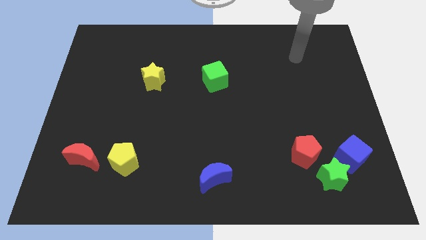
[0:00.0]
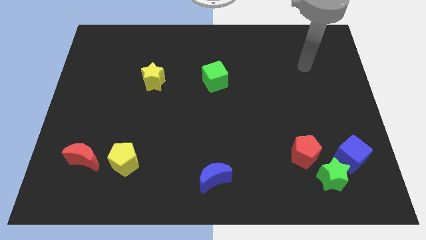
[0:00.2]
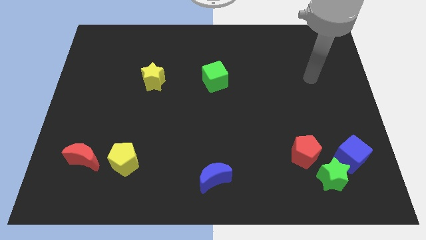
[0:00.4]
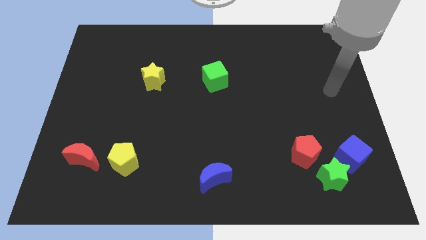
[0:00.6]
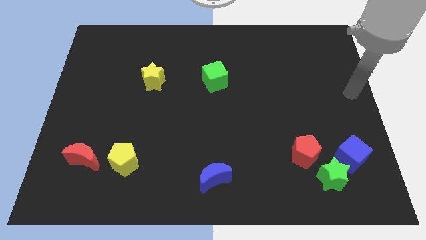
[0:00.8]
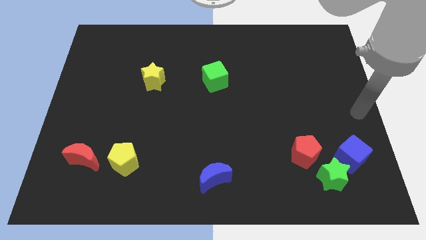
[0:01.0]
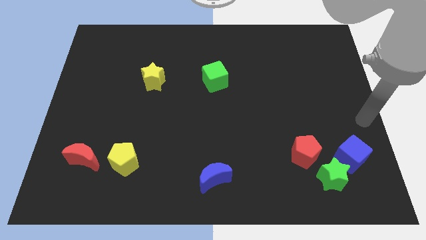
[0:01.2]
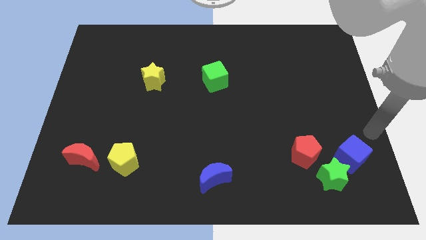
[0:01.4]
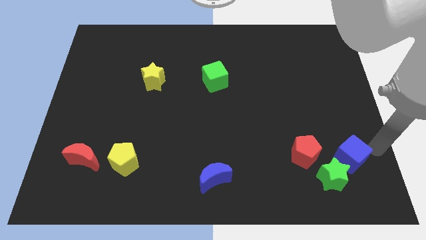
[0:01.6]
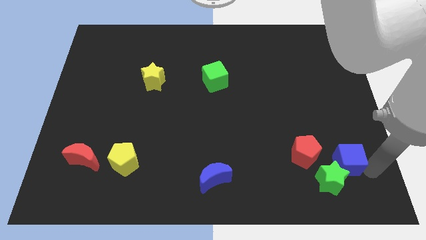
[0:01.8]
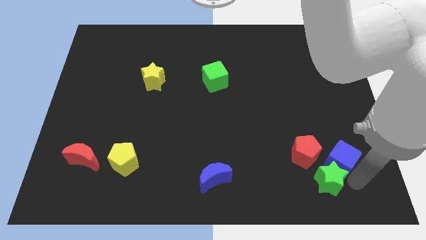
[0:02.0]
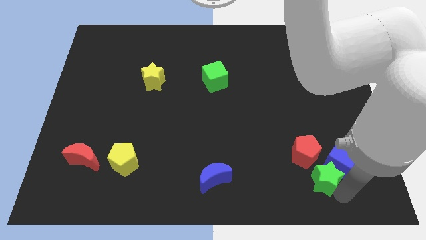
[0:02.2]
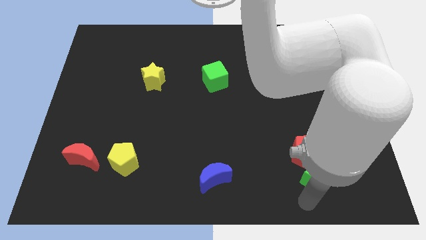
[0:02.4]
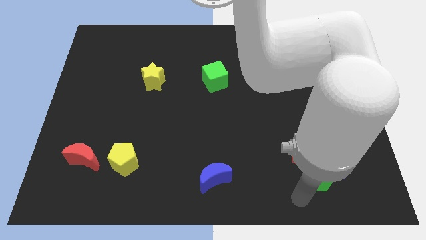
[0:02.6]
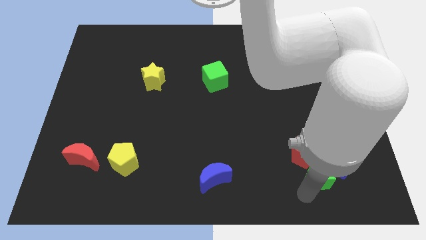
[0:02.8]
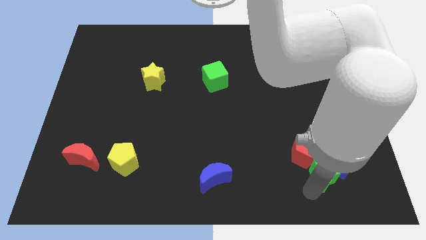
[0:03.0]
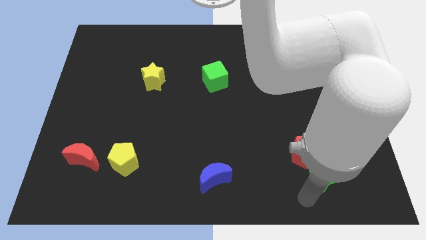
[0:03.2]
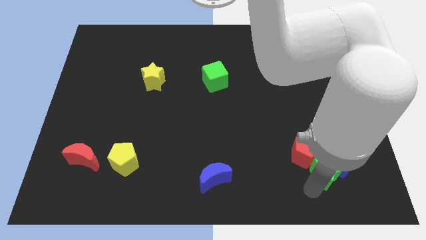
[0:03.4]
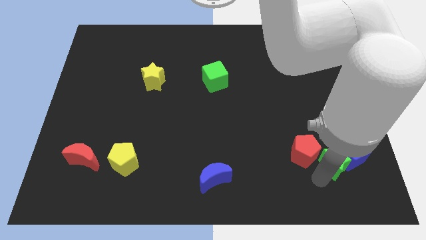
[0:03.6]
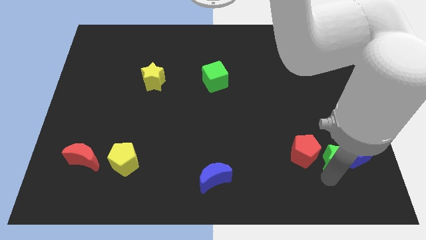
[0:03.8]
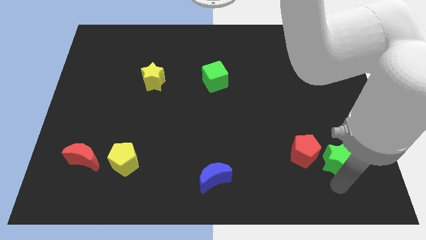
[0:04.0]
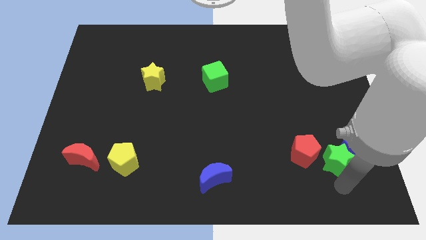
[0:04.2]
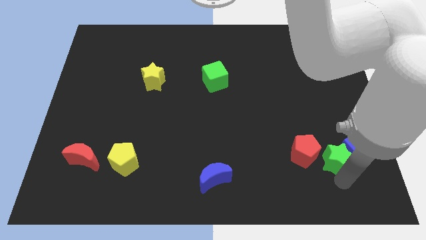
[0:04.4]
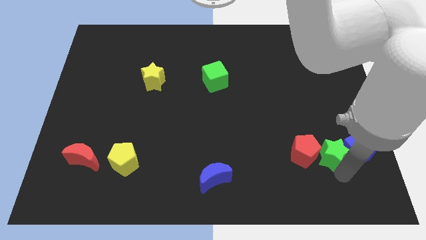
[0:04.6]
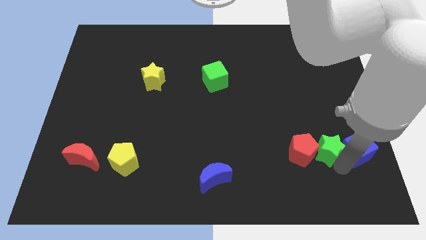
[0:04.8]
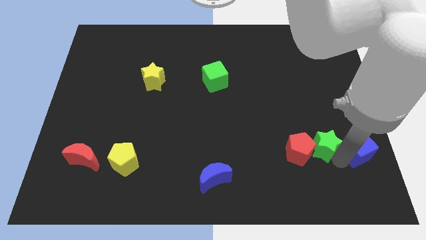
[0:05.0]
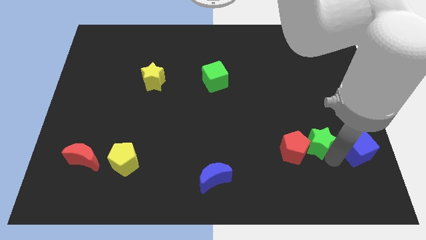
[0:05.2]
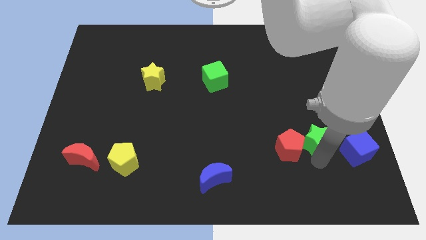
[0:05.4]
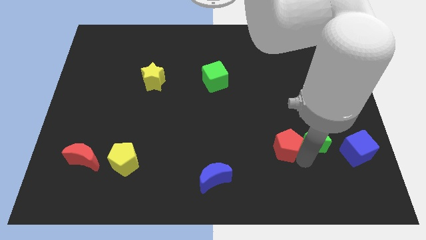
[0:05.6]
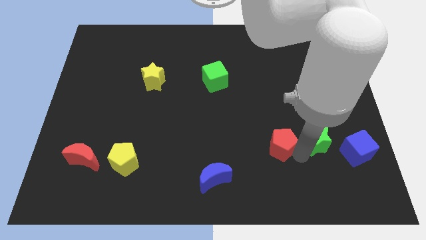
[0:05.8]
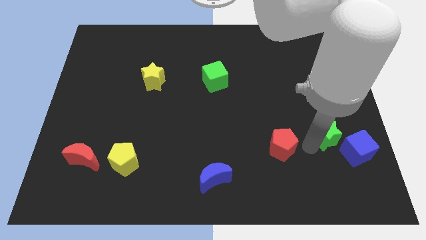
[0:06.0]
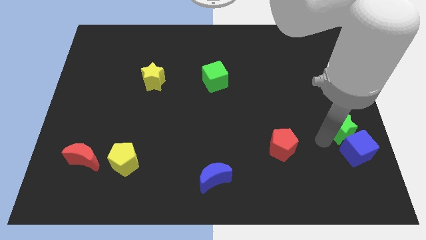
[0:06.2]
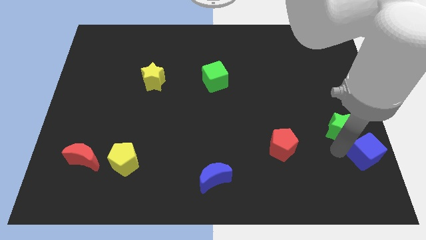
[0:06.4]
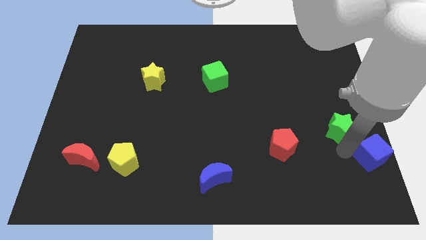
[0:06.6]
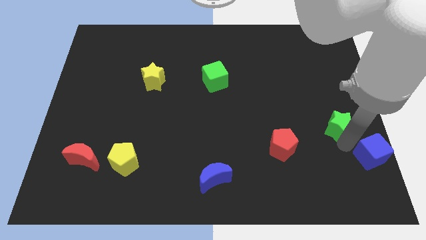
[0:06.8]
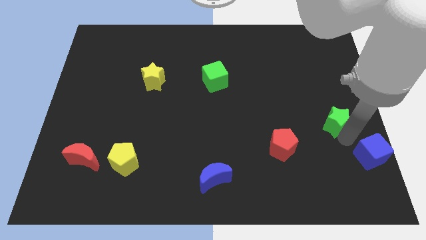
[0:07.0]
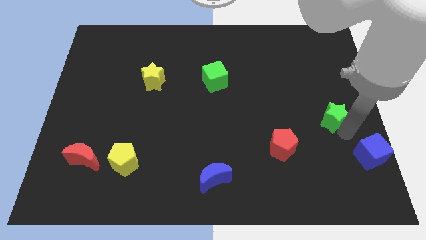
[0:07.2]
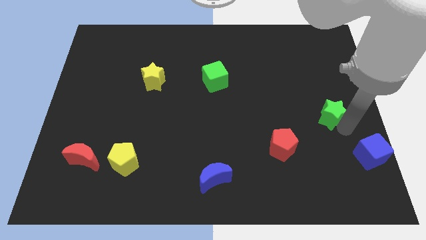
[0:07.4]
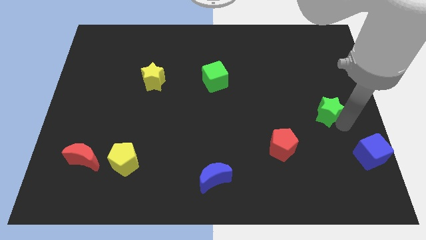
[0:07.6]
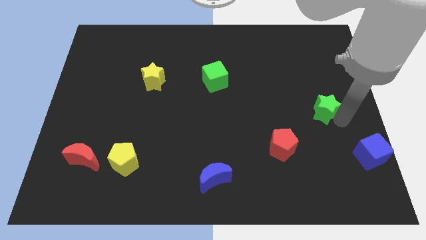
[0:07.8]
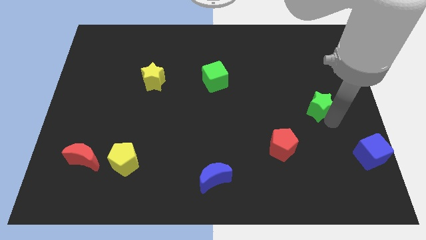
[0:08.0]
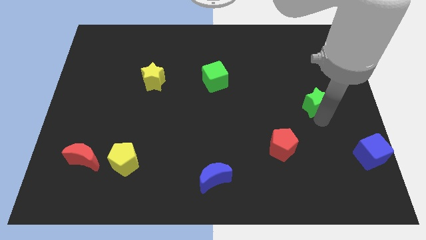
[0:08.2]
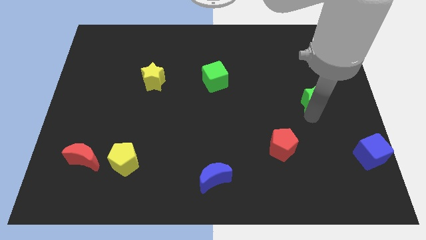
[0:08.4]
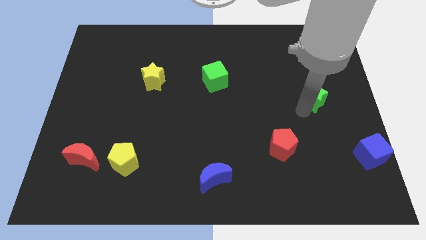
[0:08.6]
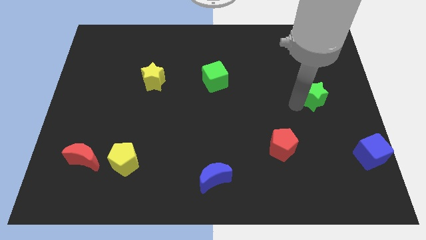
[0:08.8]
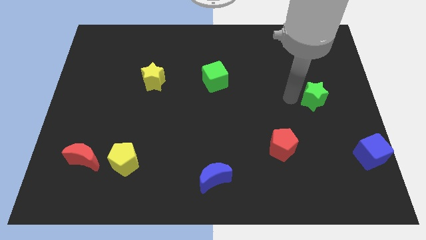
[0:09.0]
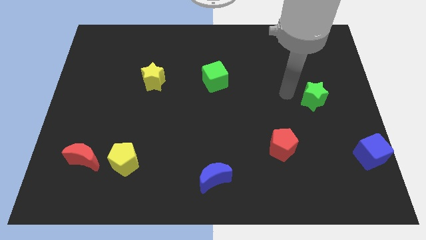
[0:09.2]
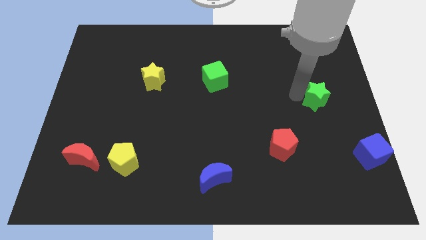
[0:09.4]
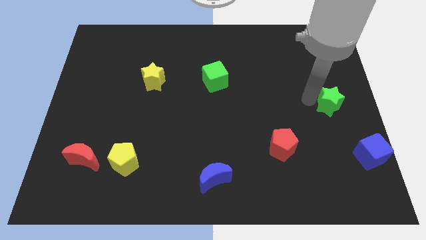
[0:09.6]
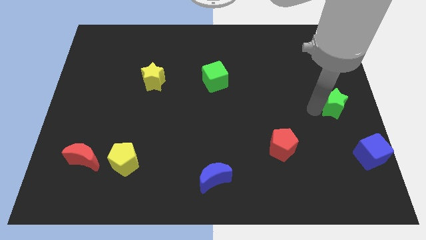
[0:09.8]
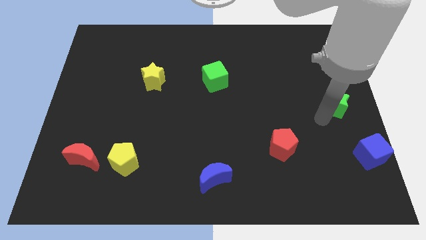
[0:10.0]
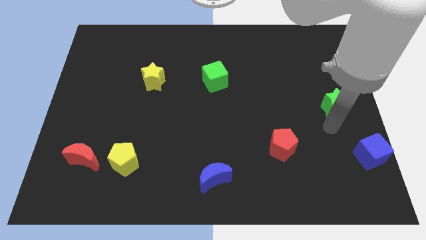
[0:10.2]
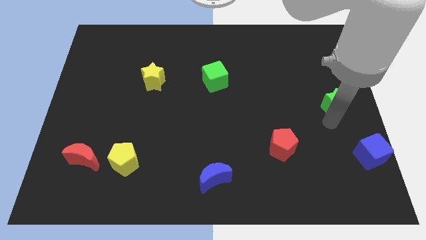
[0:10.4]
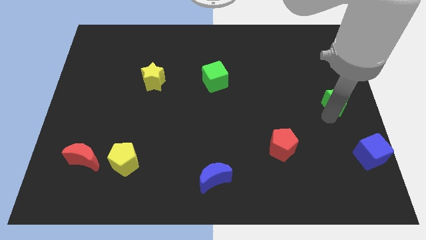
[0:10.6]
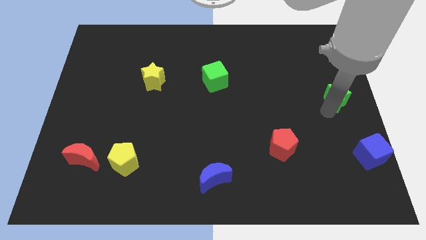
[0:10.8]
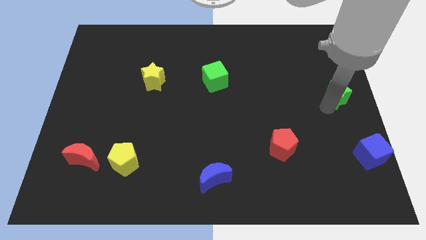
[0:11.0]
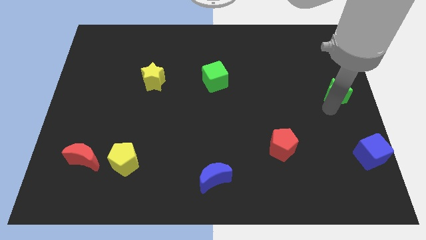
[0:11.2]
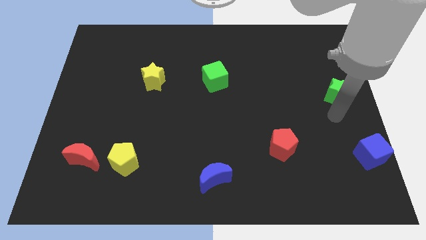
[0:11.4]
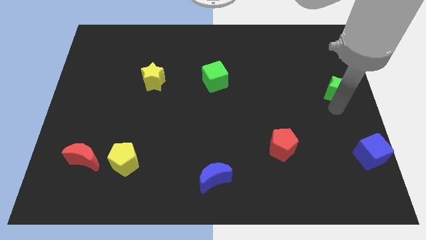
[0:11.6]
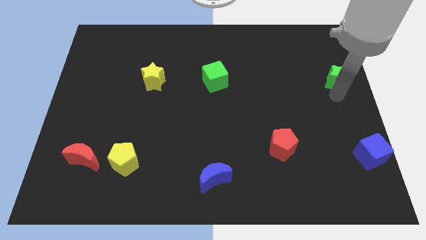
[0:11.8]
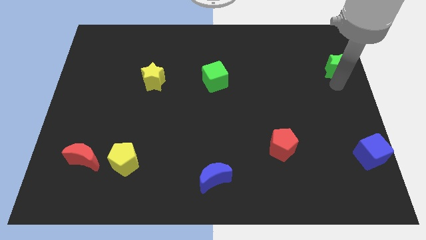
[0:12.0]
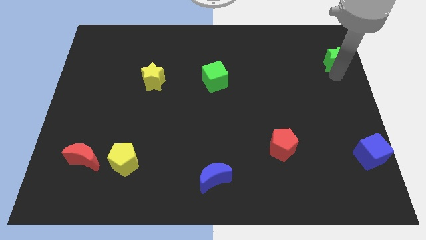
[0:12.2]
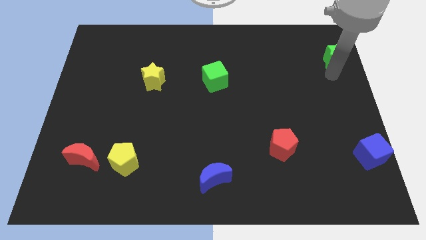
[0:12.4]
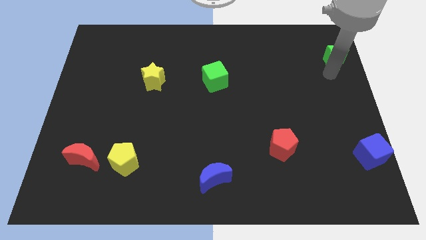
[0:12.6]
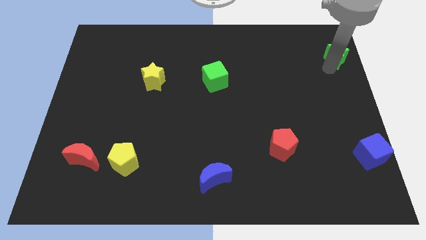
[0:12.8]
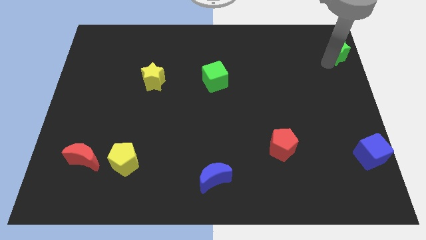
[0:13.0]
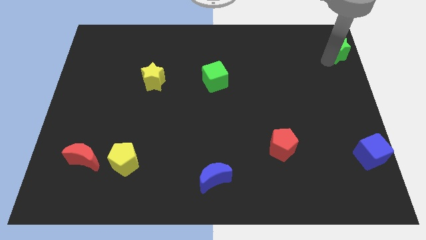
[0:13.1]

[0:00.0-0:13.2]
slide the green star to the top right of the board
